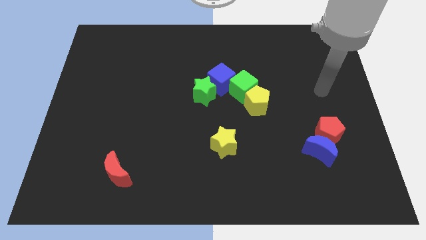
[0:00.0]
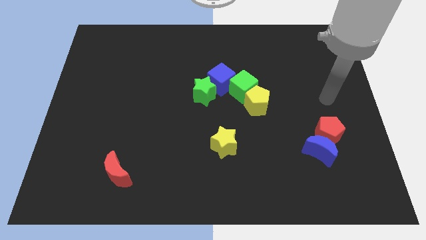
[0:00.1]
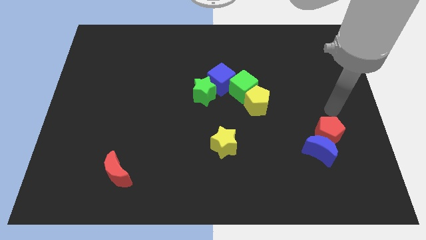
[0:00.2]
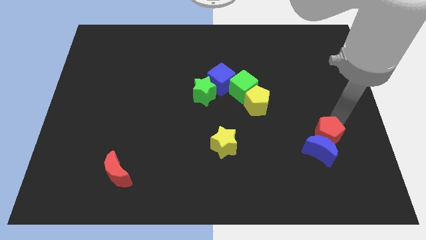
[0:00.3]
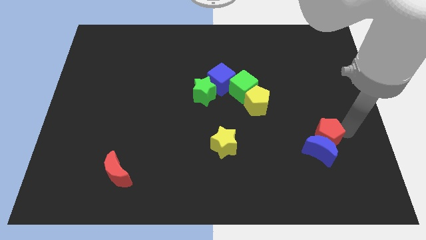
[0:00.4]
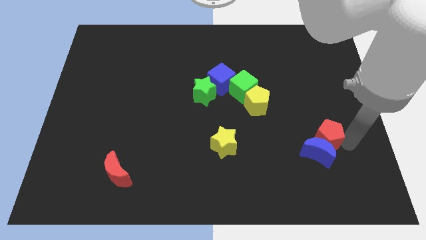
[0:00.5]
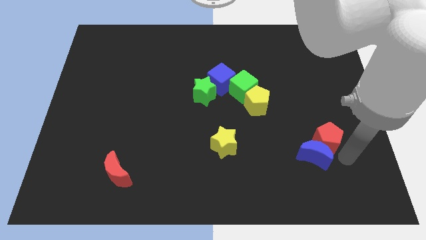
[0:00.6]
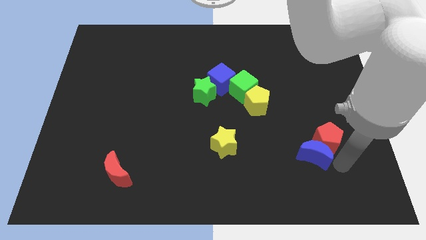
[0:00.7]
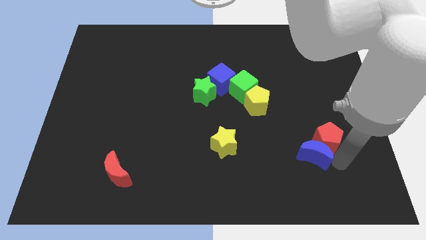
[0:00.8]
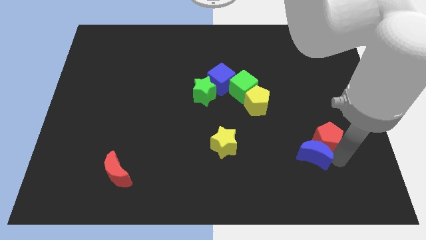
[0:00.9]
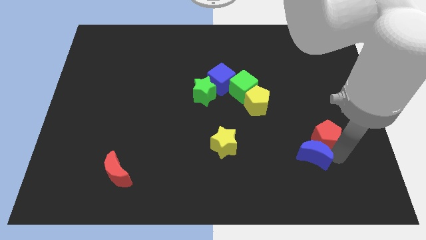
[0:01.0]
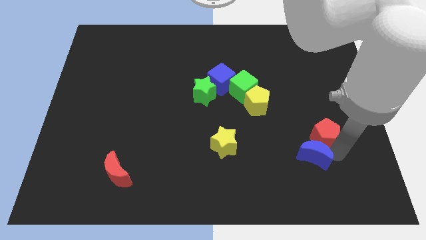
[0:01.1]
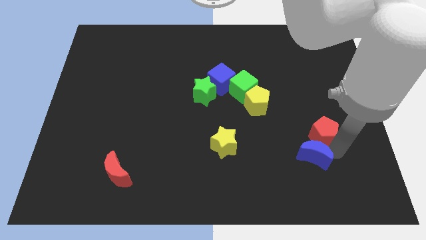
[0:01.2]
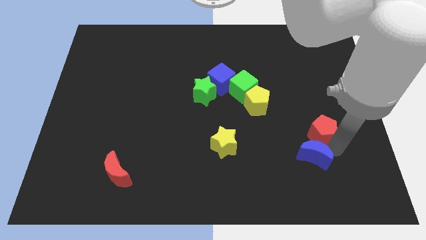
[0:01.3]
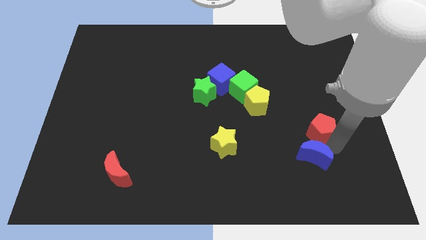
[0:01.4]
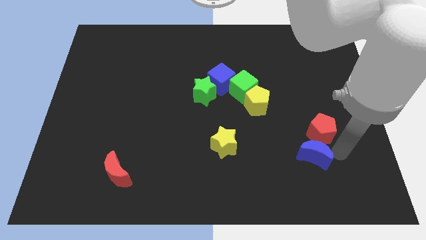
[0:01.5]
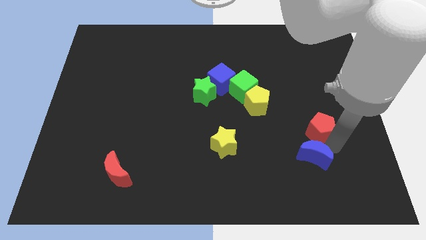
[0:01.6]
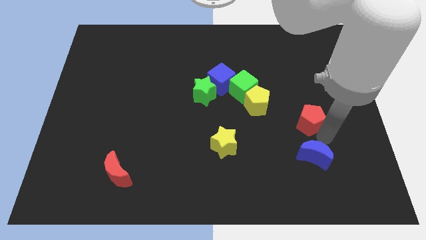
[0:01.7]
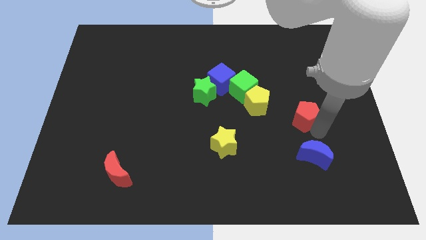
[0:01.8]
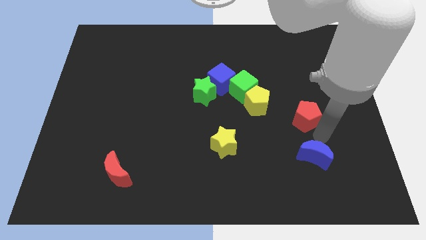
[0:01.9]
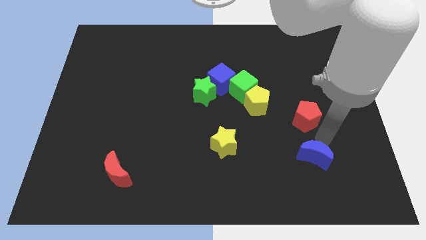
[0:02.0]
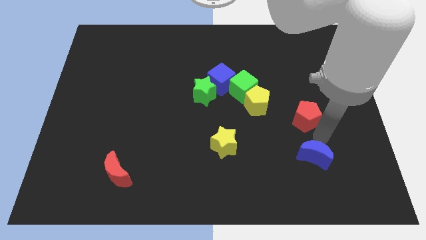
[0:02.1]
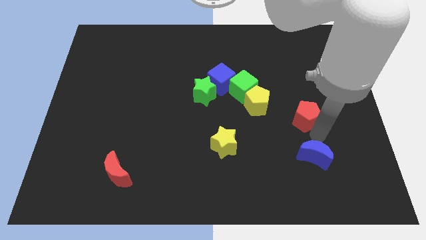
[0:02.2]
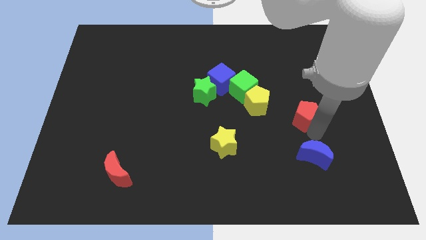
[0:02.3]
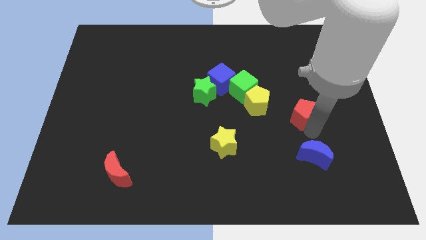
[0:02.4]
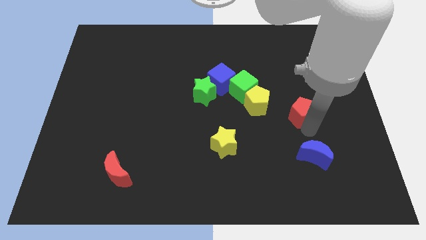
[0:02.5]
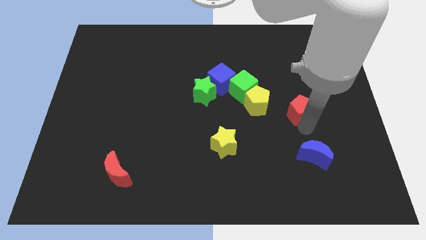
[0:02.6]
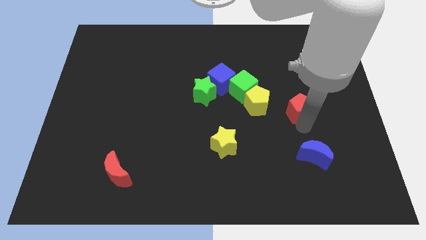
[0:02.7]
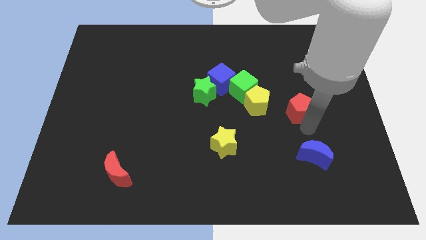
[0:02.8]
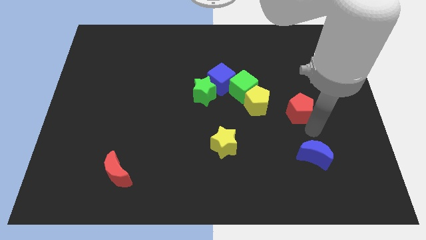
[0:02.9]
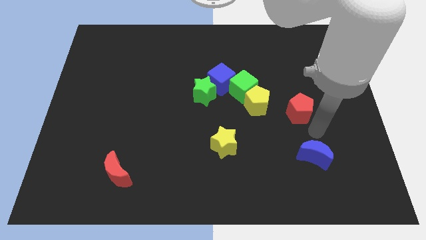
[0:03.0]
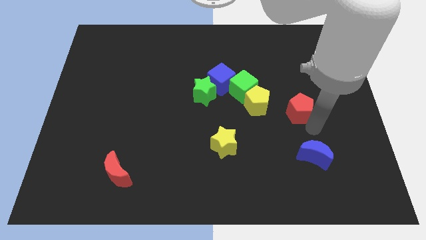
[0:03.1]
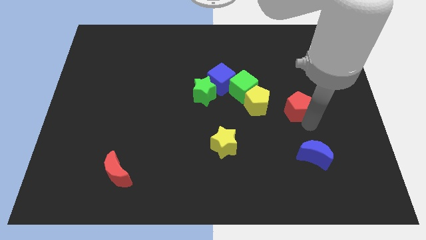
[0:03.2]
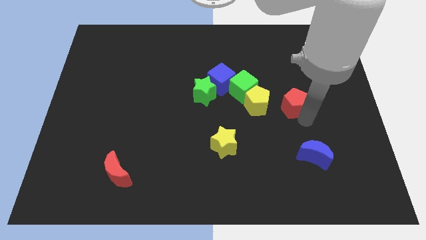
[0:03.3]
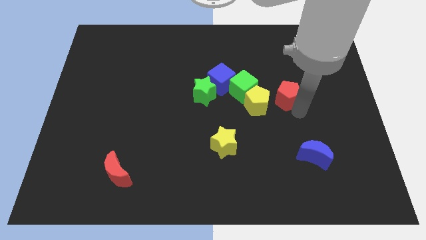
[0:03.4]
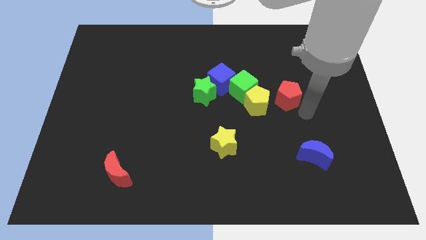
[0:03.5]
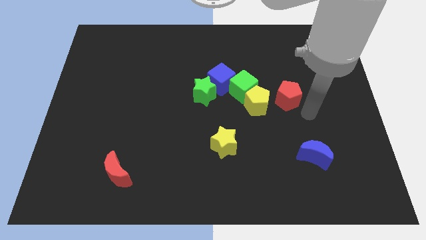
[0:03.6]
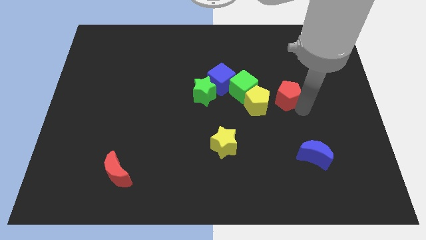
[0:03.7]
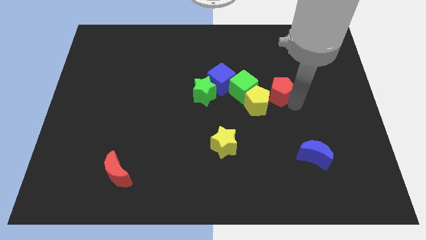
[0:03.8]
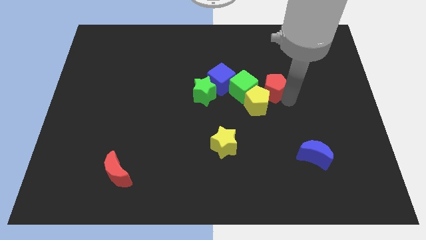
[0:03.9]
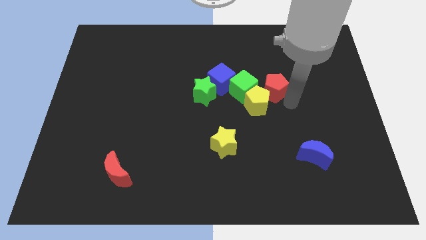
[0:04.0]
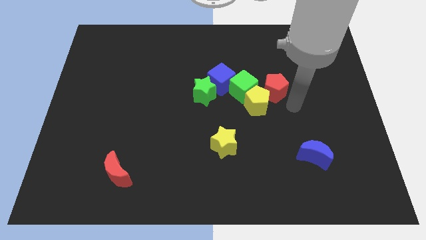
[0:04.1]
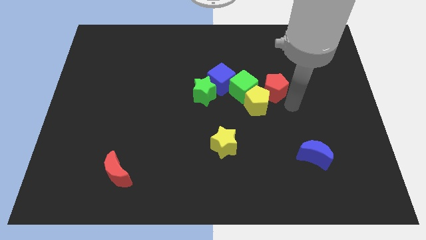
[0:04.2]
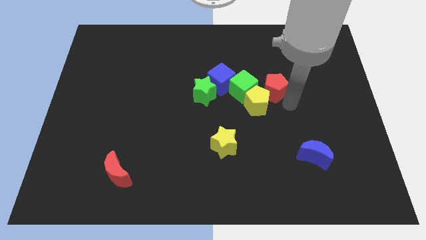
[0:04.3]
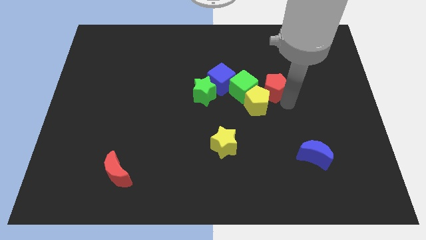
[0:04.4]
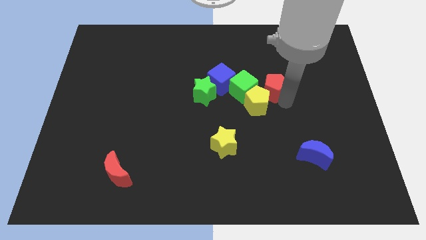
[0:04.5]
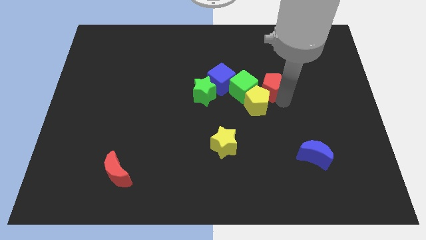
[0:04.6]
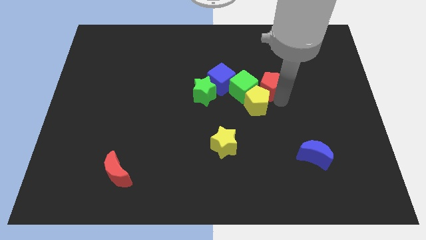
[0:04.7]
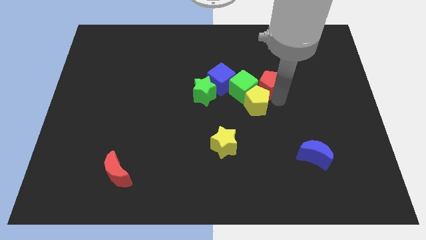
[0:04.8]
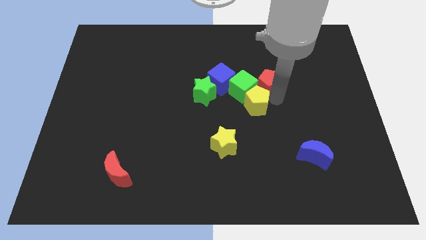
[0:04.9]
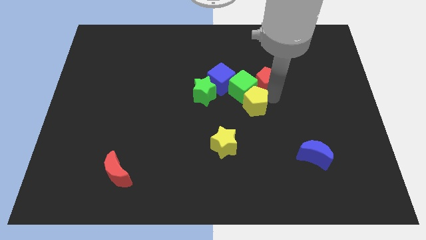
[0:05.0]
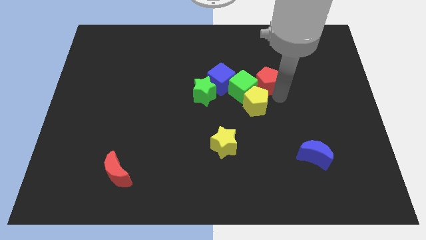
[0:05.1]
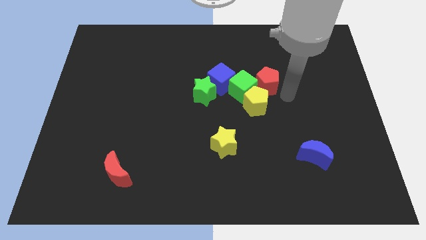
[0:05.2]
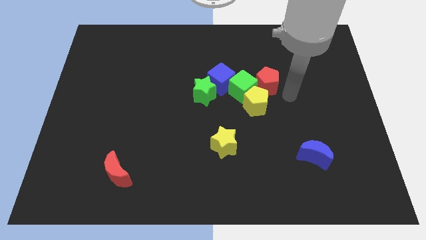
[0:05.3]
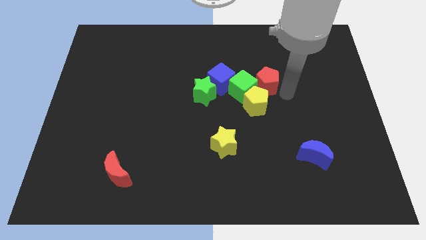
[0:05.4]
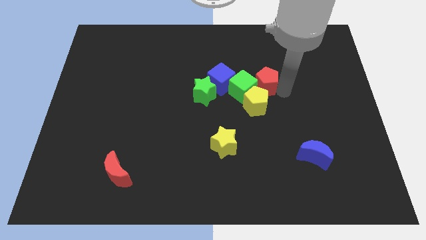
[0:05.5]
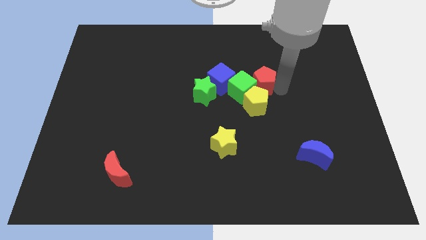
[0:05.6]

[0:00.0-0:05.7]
push the red pentagon diagonally upwards and to the left

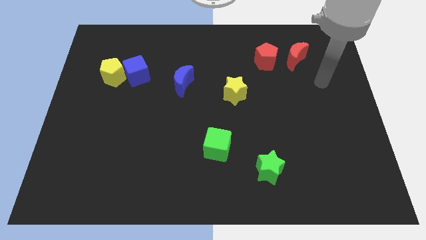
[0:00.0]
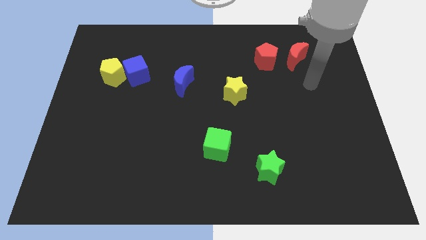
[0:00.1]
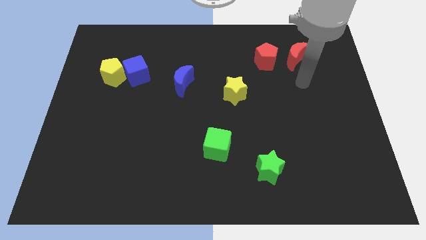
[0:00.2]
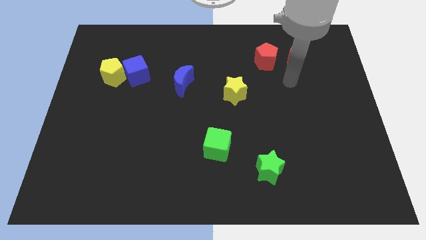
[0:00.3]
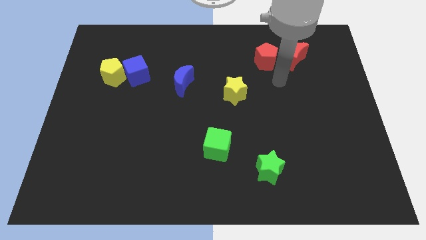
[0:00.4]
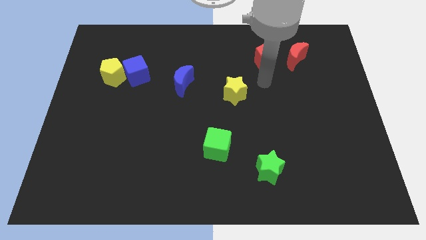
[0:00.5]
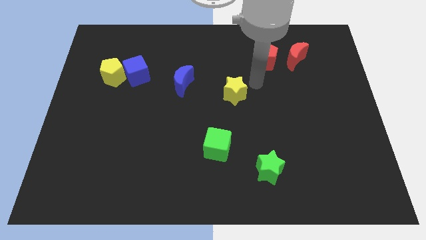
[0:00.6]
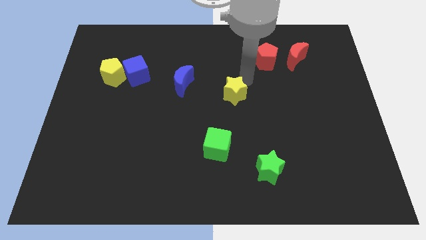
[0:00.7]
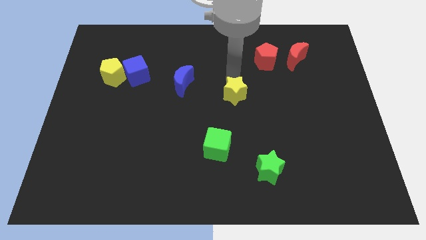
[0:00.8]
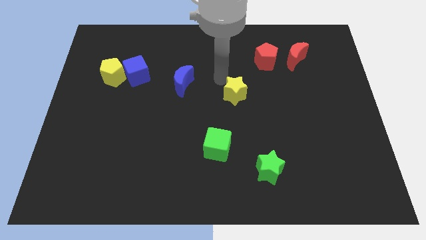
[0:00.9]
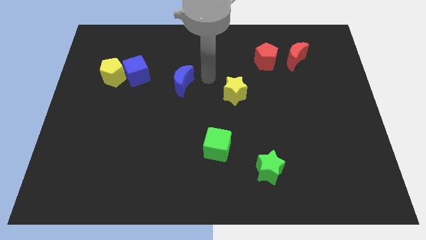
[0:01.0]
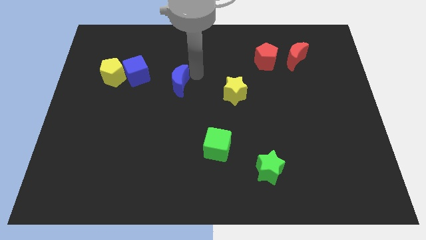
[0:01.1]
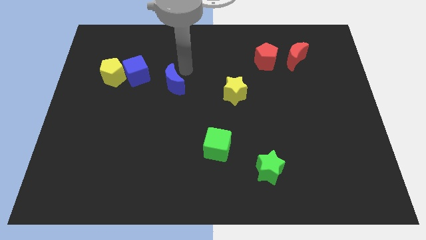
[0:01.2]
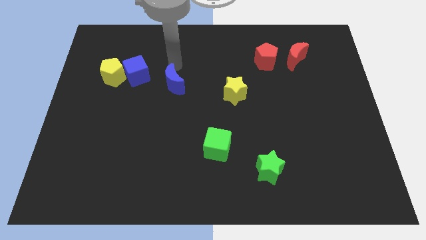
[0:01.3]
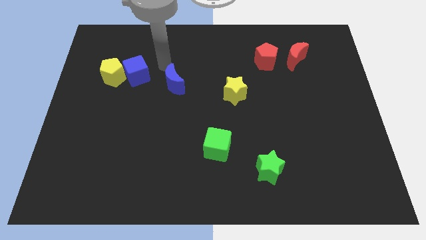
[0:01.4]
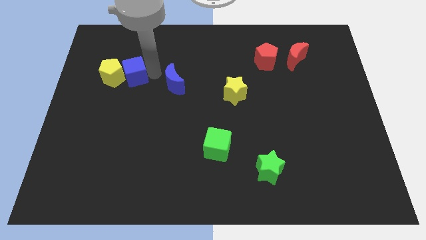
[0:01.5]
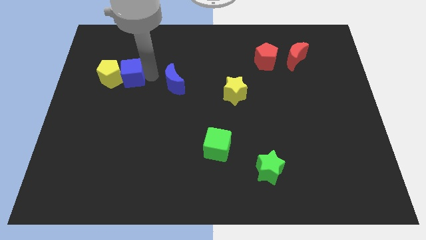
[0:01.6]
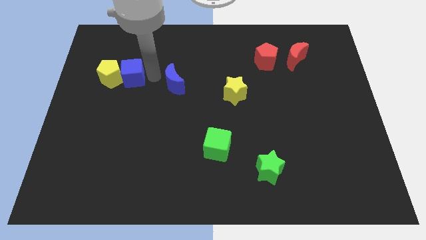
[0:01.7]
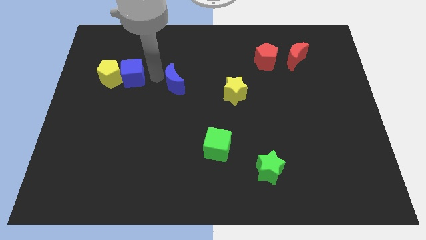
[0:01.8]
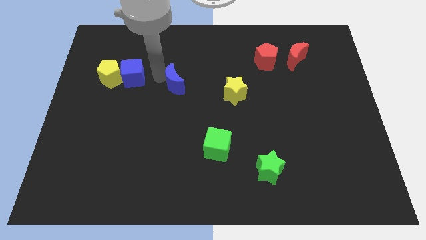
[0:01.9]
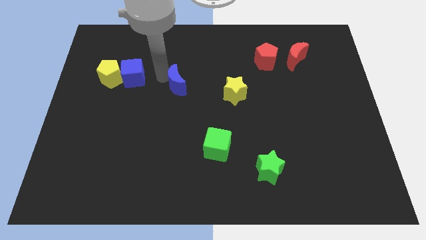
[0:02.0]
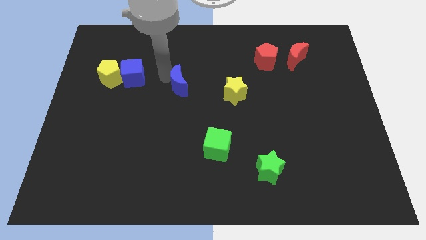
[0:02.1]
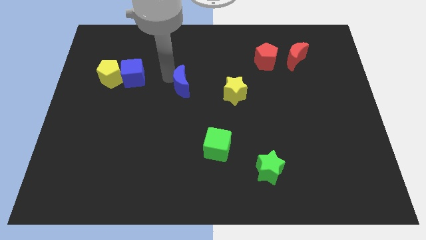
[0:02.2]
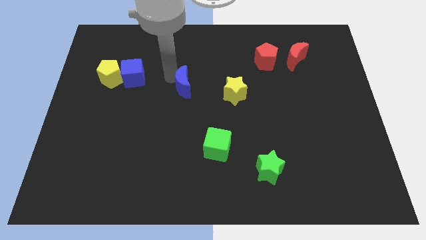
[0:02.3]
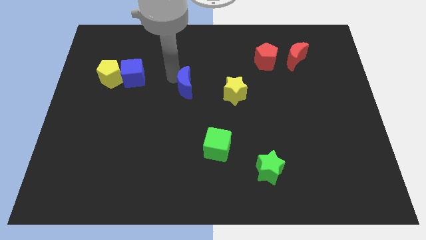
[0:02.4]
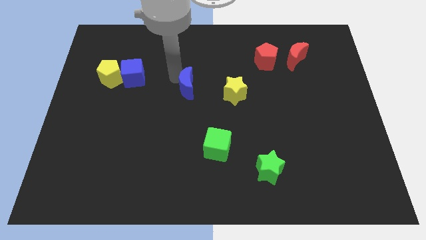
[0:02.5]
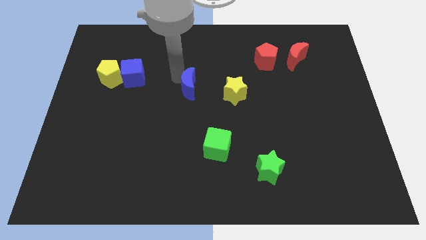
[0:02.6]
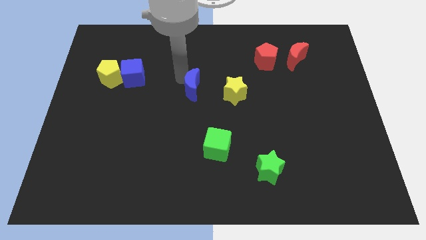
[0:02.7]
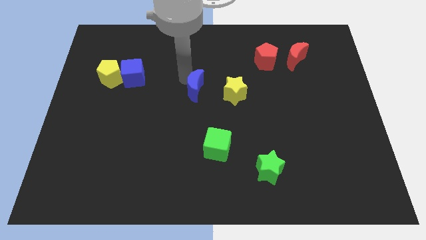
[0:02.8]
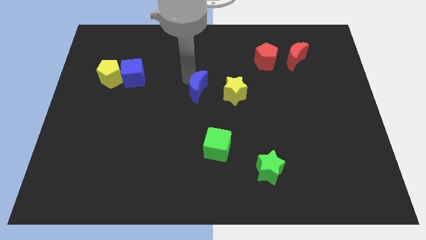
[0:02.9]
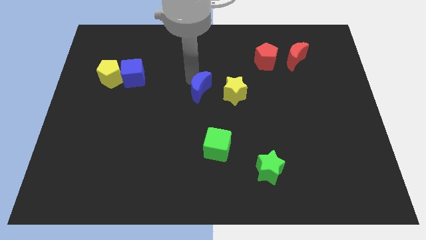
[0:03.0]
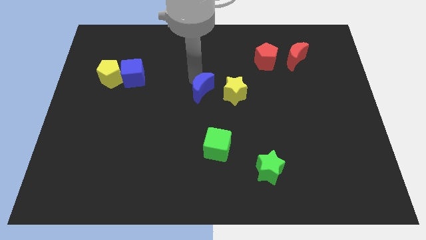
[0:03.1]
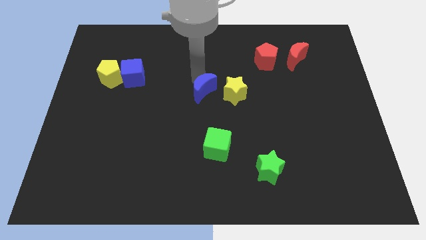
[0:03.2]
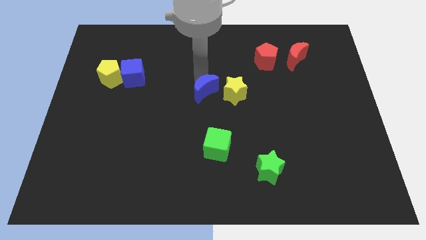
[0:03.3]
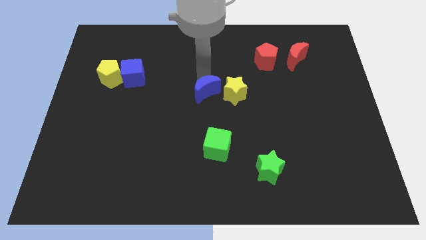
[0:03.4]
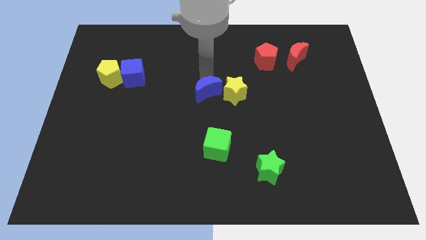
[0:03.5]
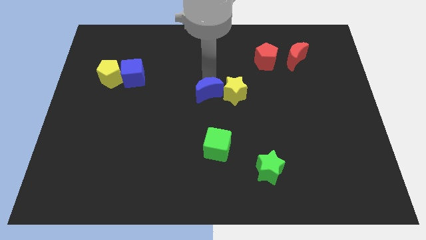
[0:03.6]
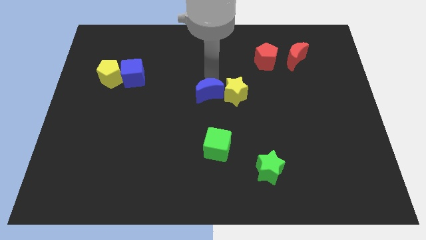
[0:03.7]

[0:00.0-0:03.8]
move the blue moon down and then right a bit
